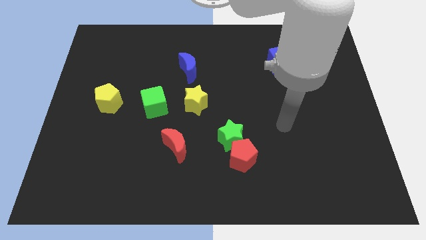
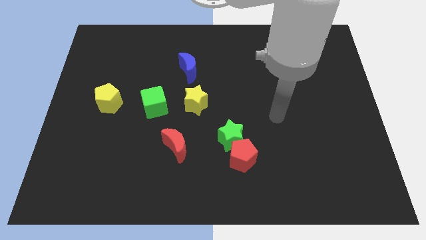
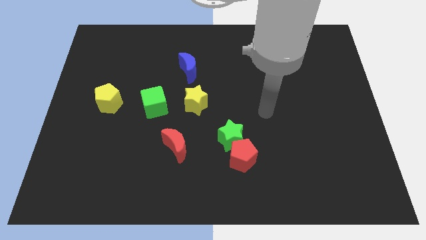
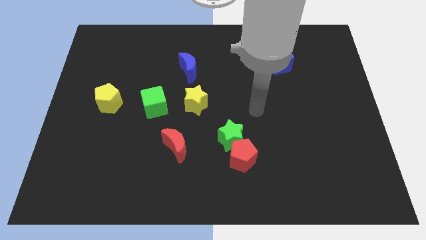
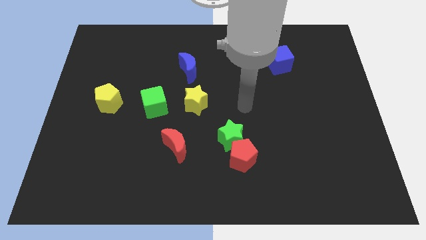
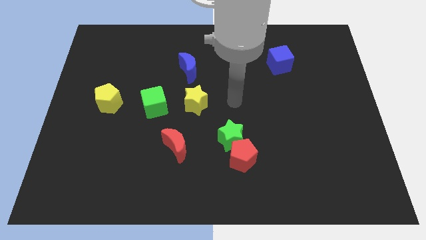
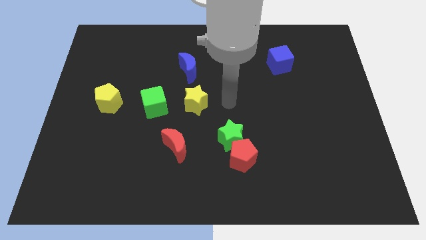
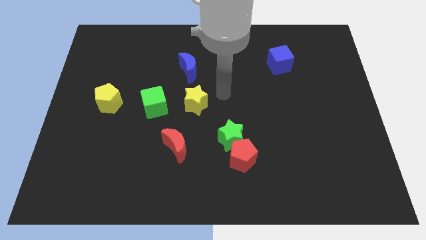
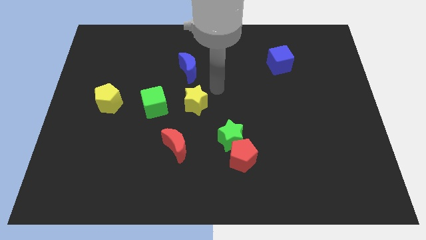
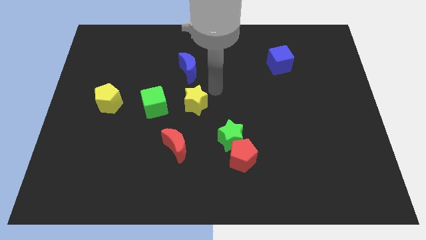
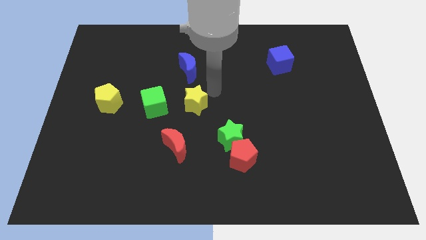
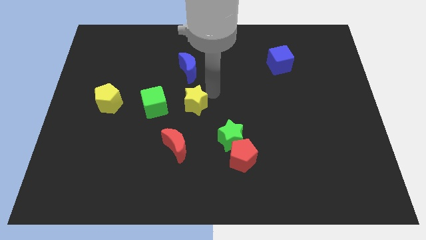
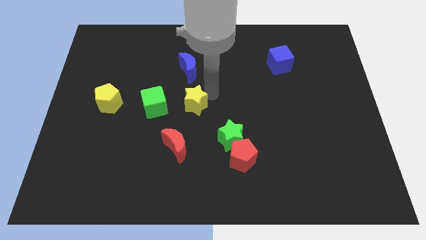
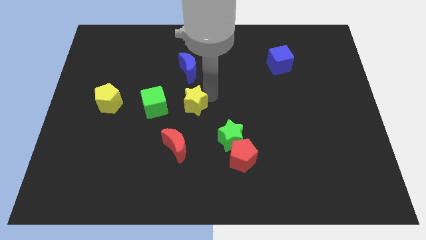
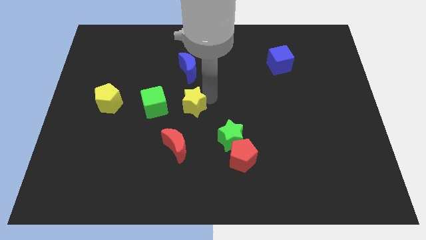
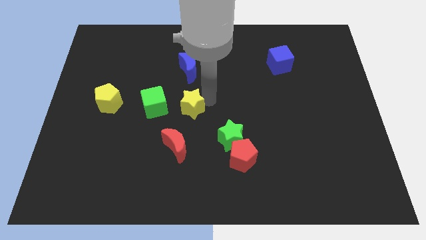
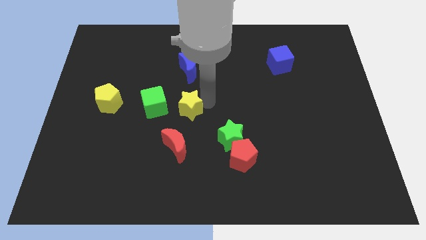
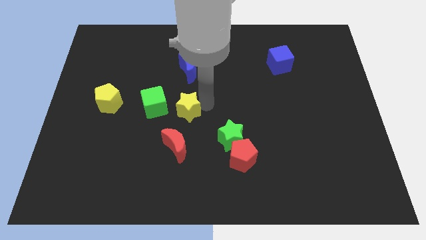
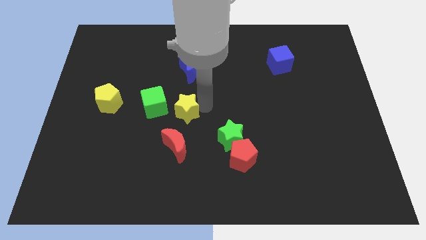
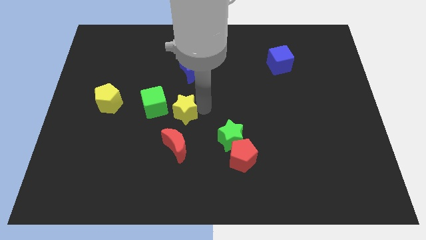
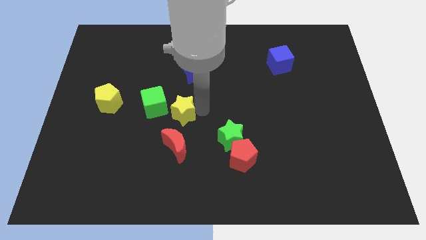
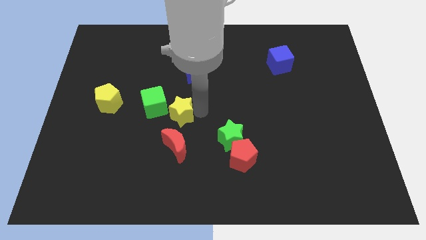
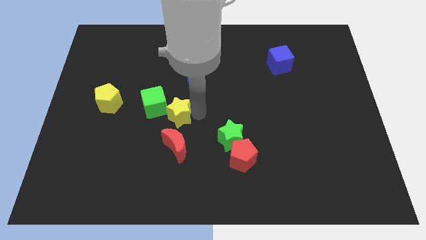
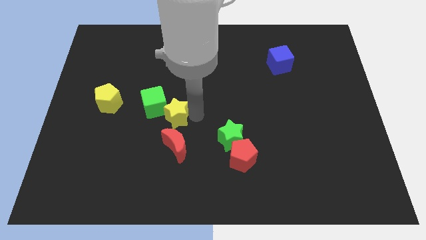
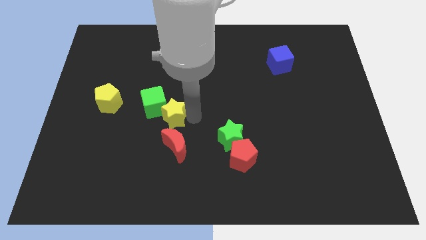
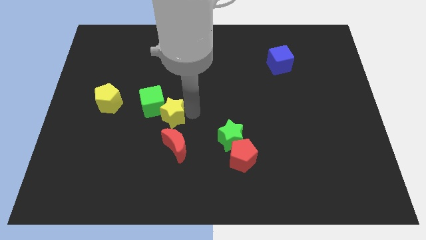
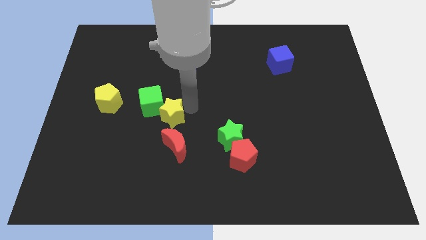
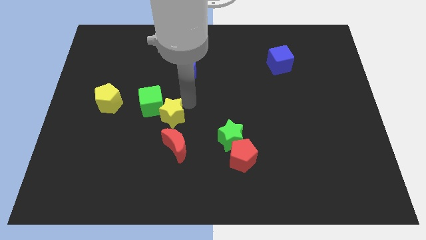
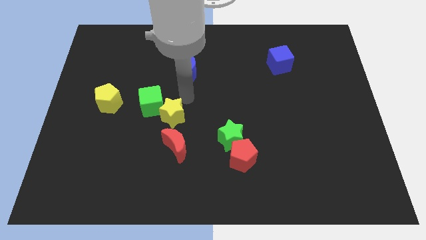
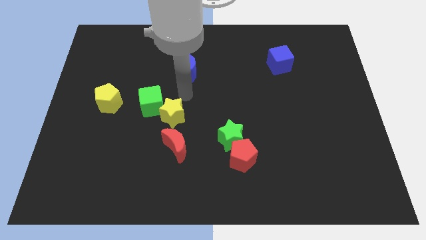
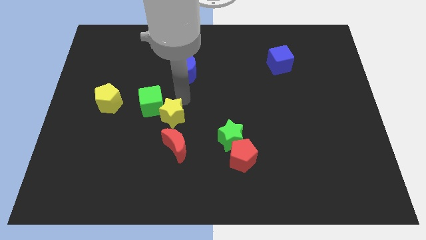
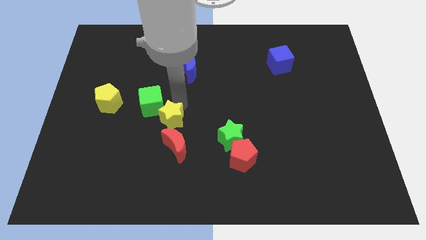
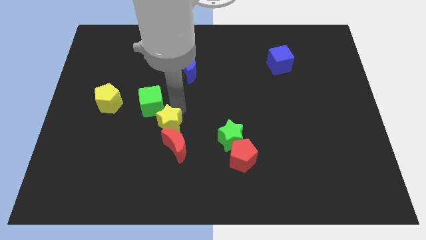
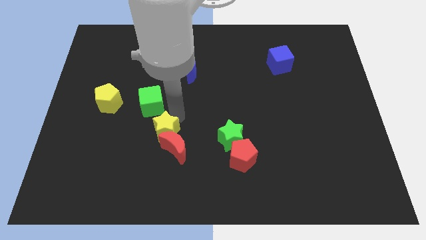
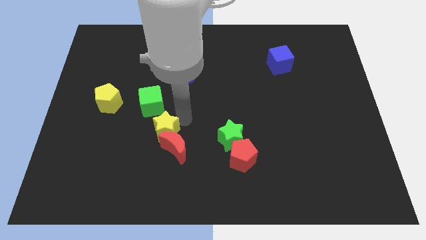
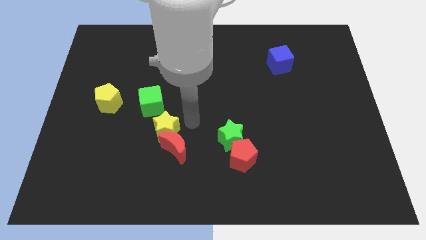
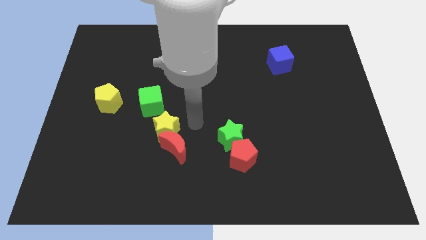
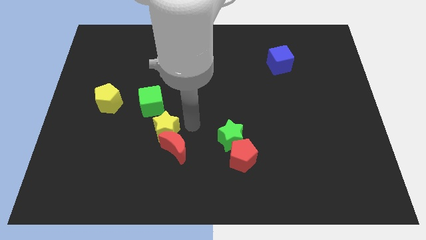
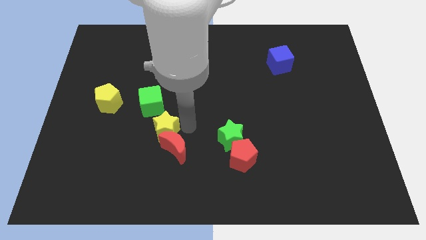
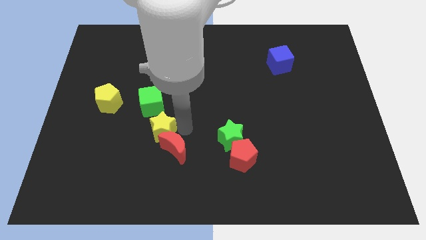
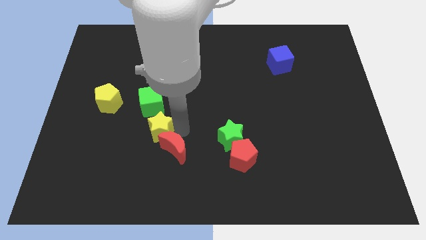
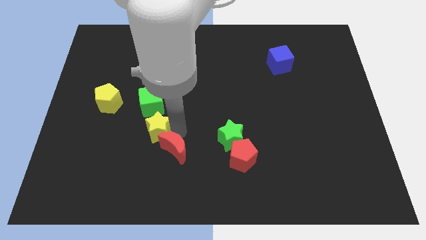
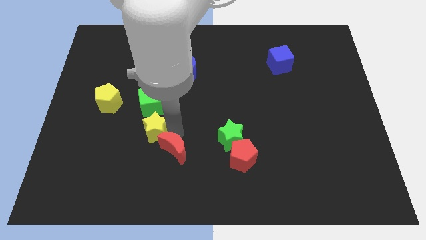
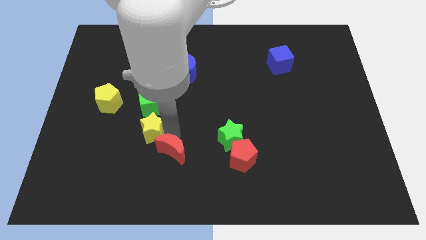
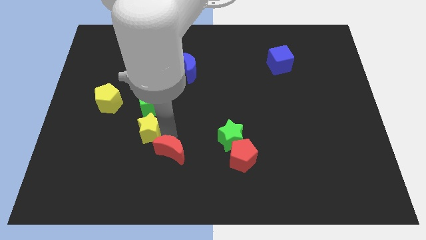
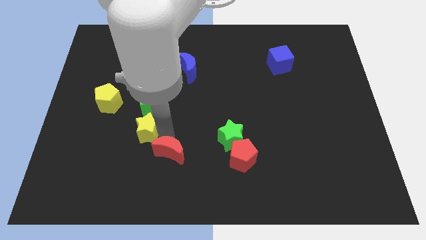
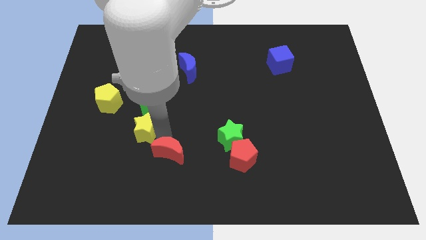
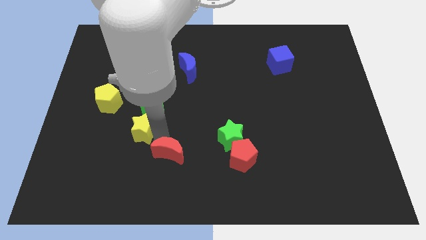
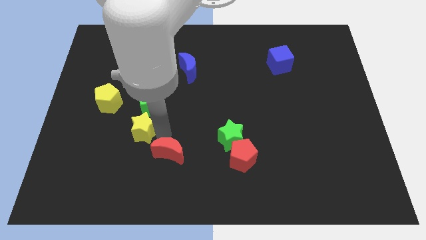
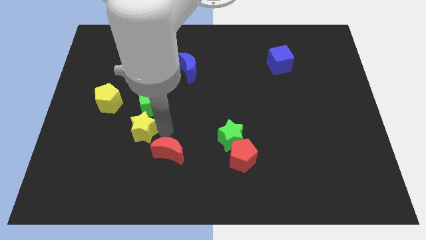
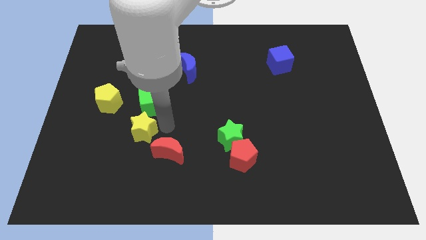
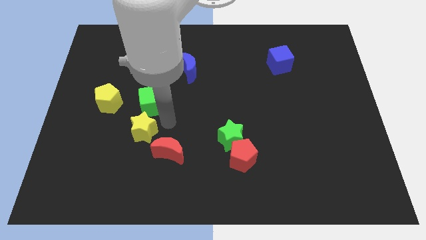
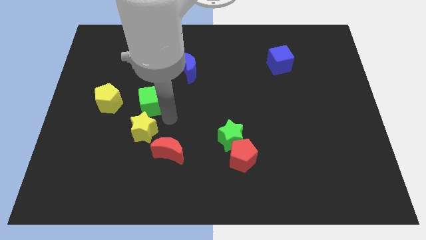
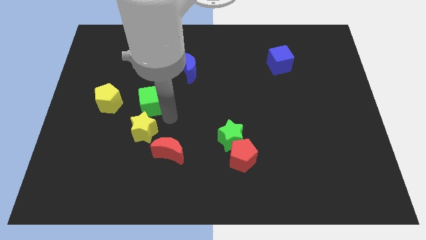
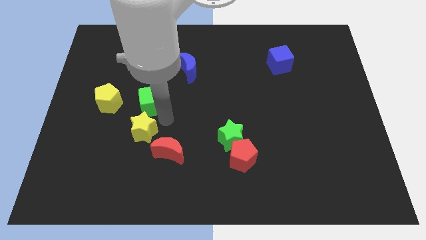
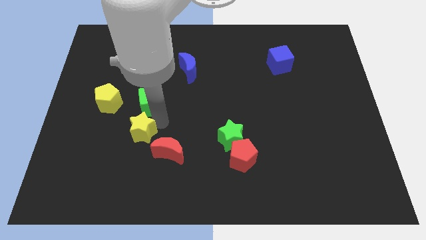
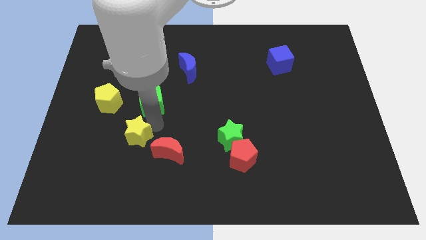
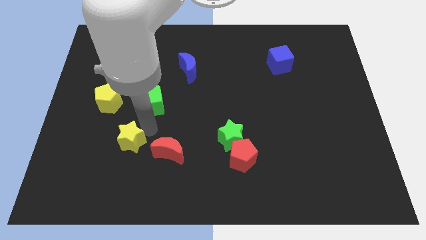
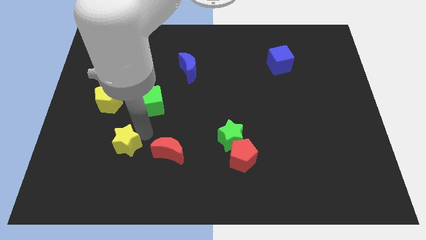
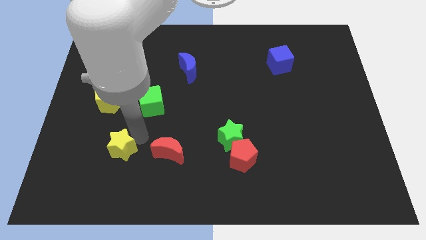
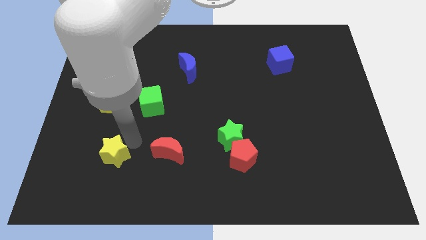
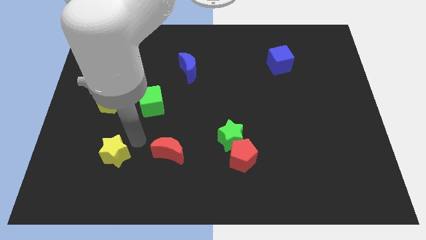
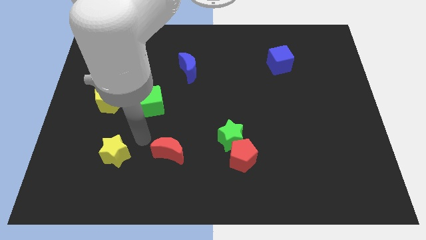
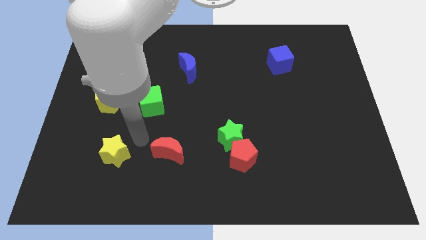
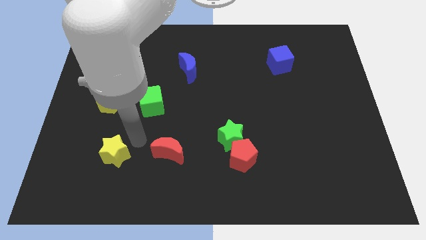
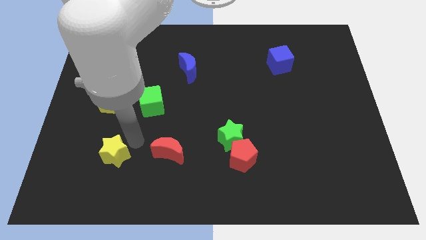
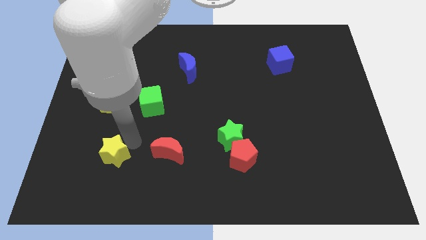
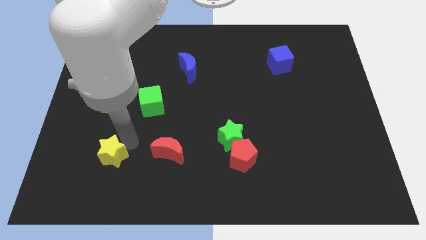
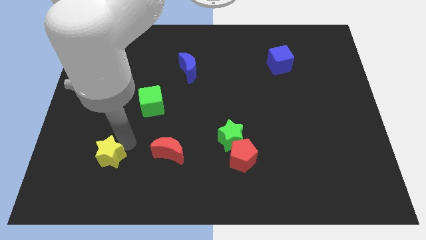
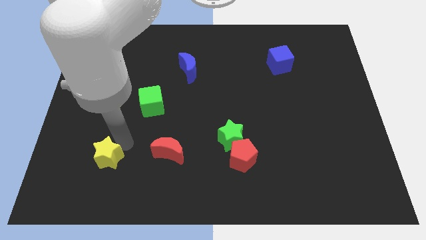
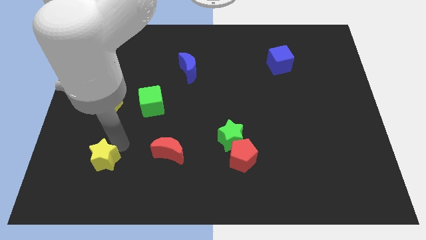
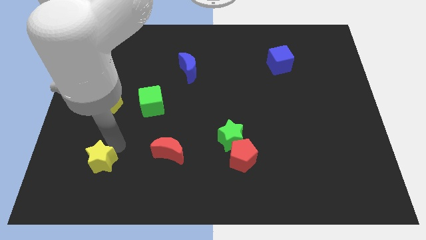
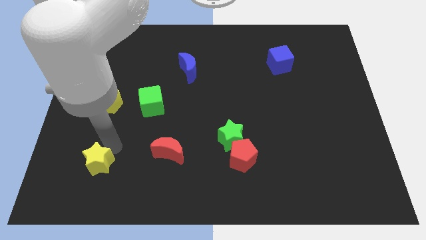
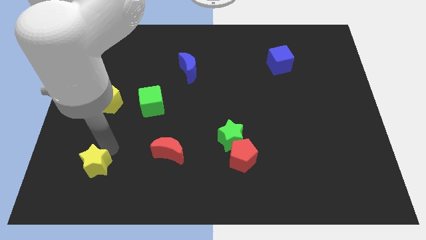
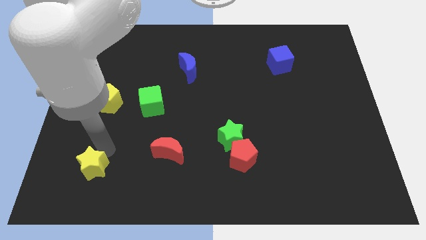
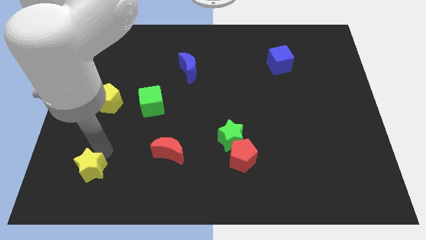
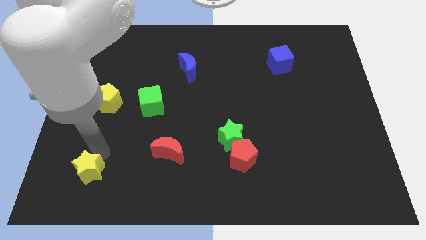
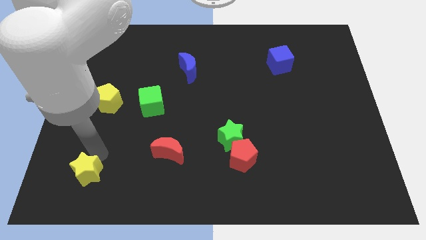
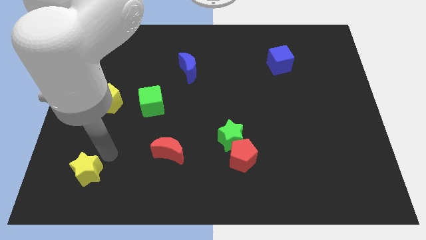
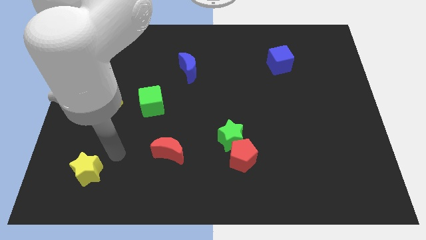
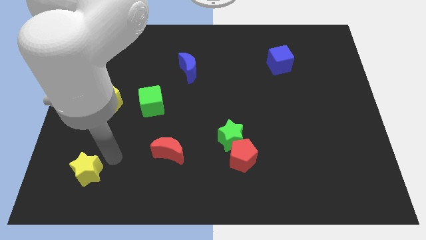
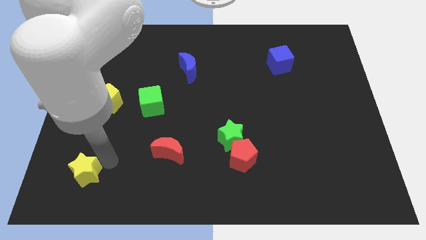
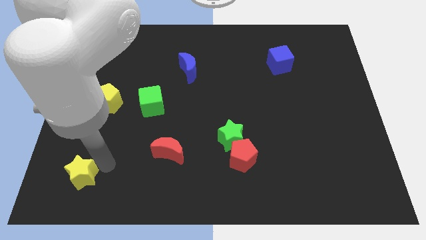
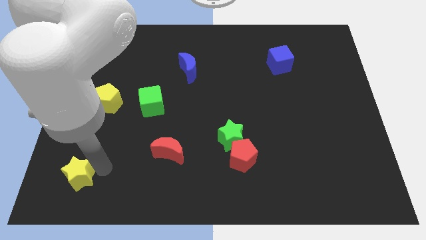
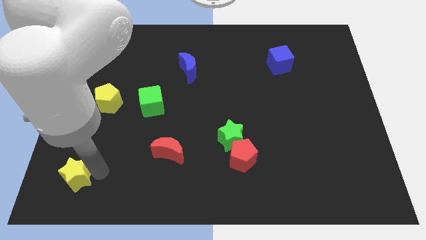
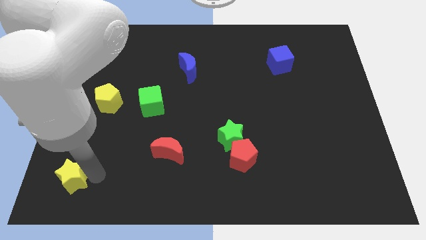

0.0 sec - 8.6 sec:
push the yellow star to the bottom left
